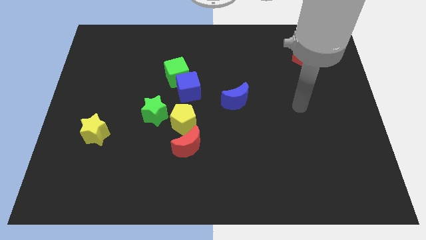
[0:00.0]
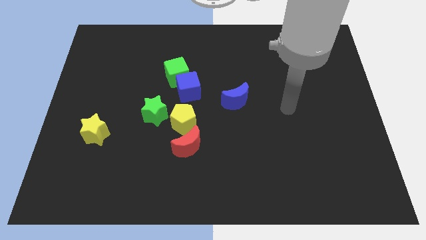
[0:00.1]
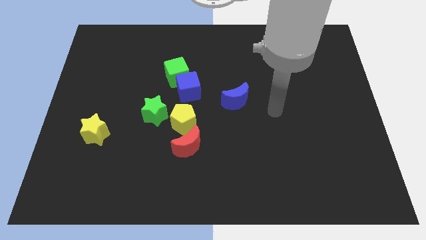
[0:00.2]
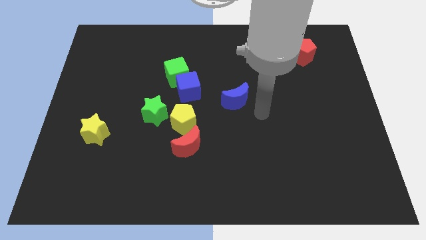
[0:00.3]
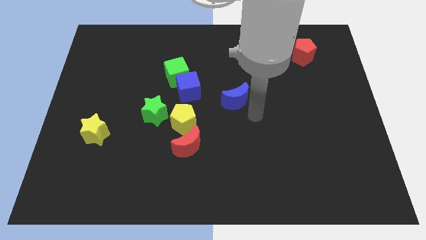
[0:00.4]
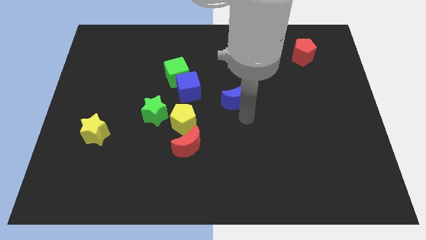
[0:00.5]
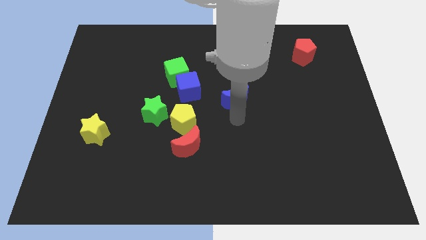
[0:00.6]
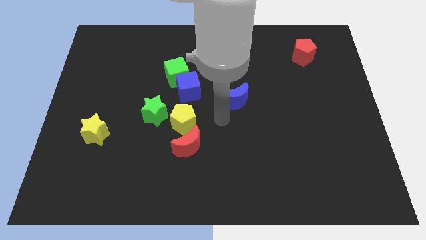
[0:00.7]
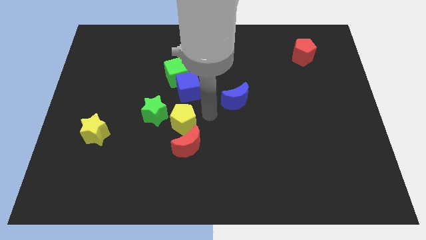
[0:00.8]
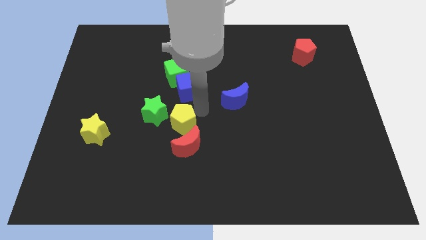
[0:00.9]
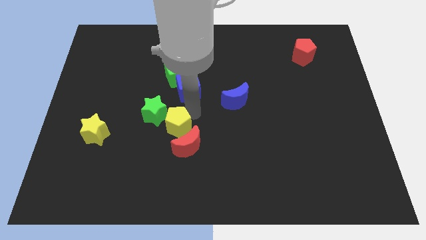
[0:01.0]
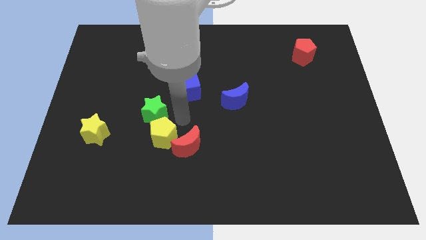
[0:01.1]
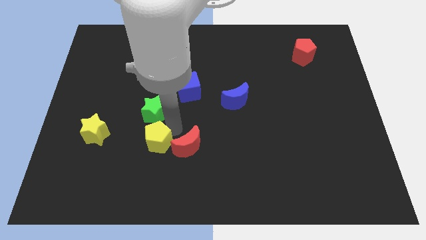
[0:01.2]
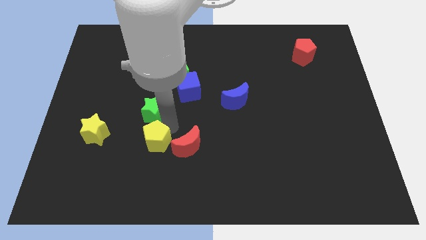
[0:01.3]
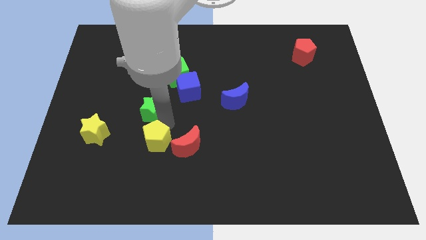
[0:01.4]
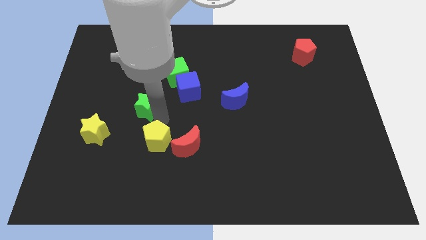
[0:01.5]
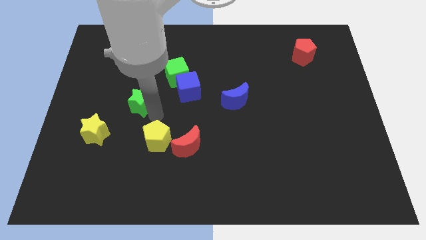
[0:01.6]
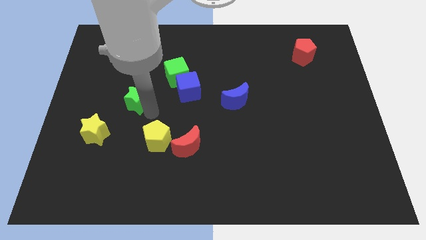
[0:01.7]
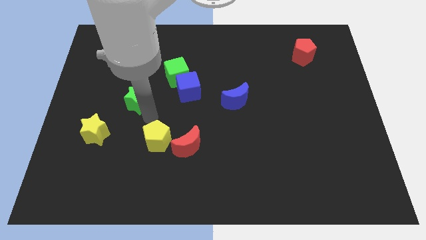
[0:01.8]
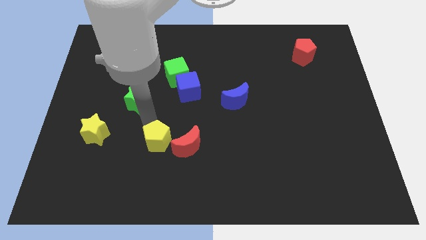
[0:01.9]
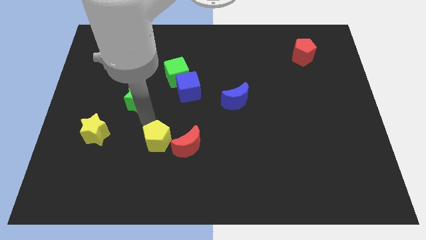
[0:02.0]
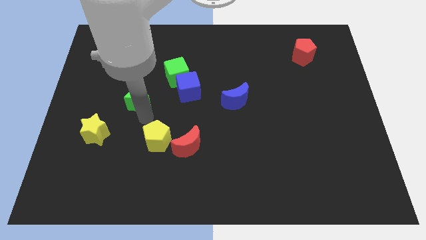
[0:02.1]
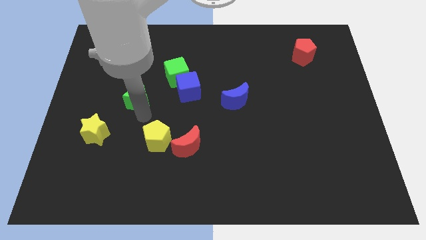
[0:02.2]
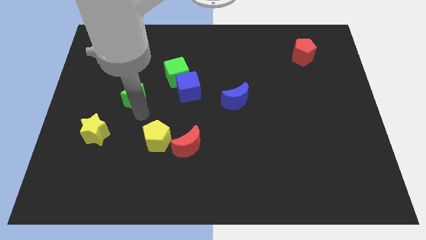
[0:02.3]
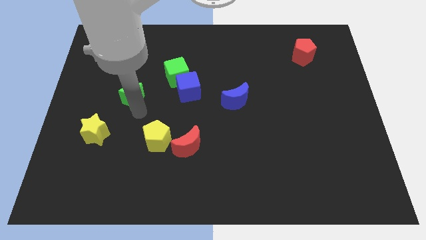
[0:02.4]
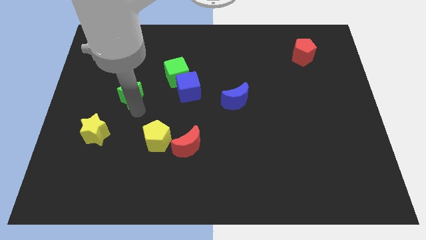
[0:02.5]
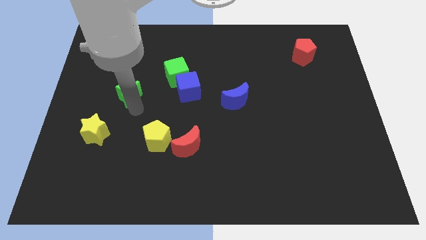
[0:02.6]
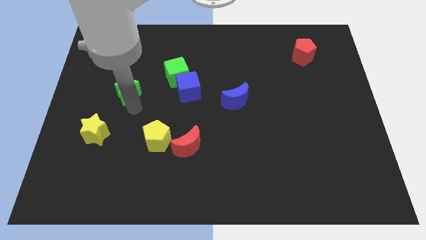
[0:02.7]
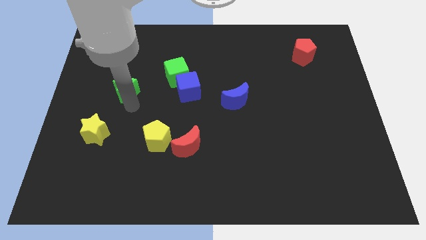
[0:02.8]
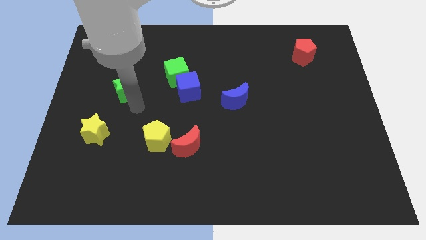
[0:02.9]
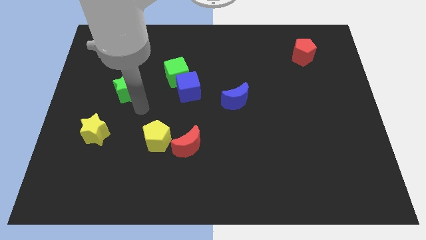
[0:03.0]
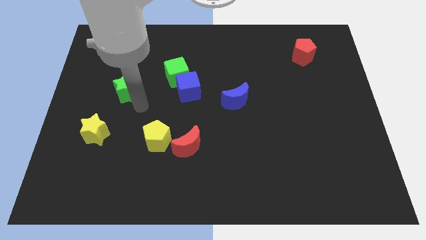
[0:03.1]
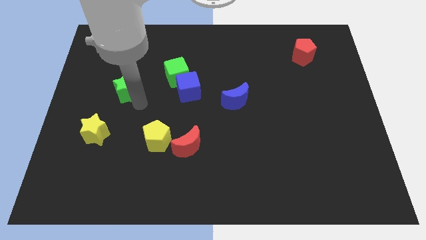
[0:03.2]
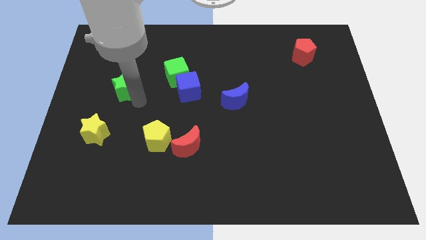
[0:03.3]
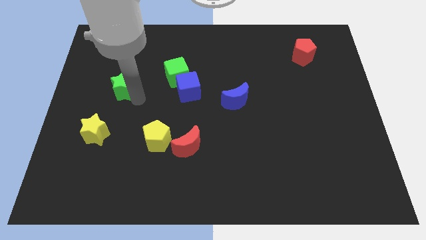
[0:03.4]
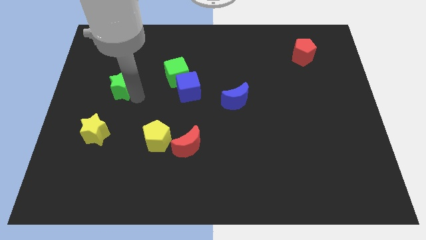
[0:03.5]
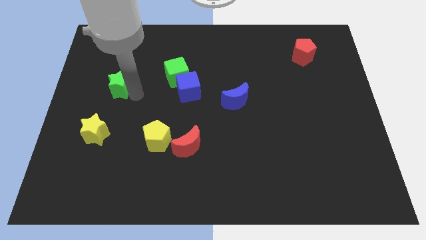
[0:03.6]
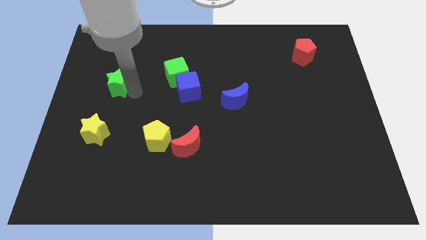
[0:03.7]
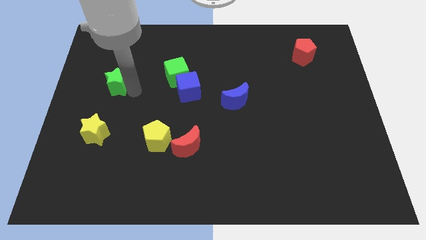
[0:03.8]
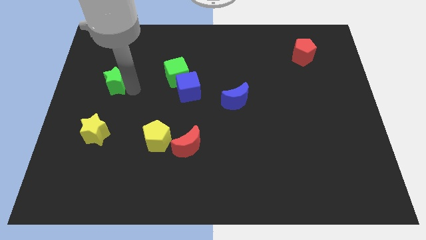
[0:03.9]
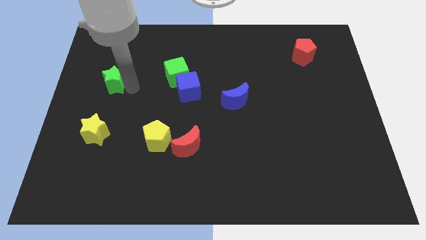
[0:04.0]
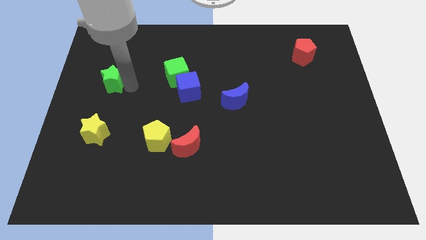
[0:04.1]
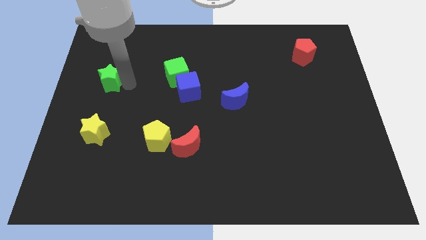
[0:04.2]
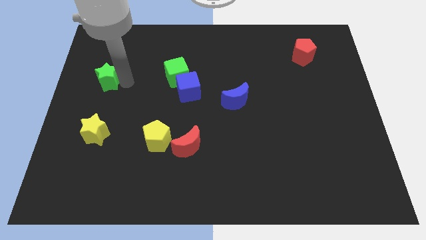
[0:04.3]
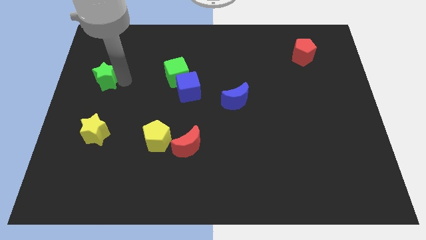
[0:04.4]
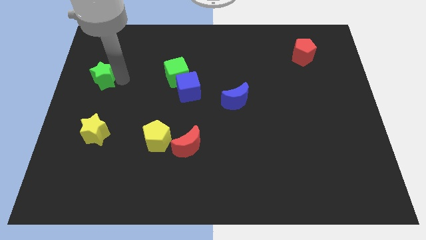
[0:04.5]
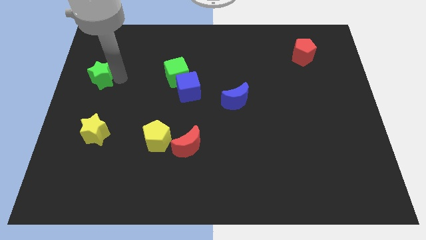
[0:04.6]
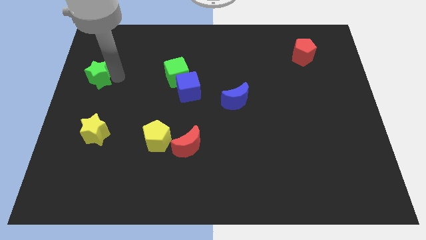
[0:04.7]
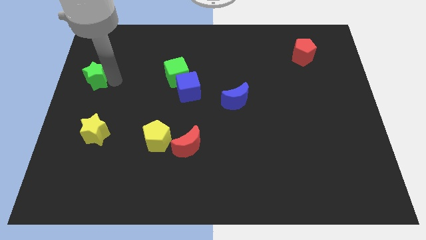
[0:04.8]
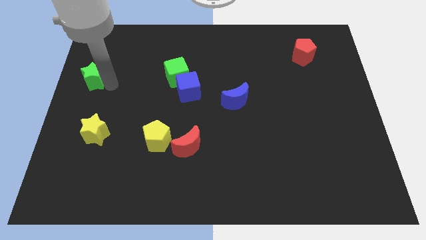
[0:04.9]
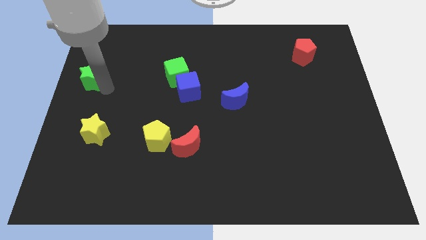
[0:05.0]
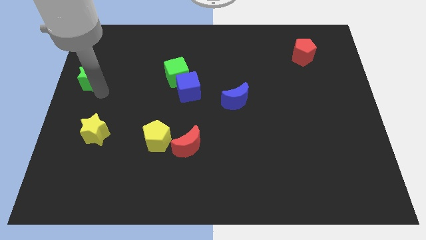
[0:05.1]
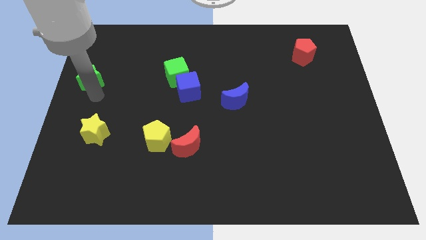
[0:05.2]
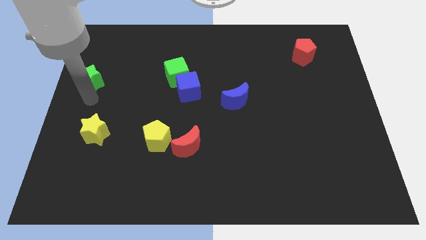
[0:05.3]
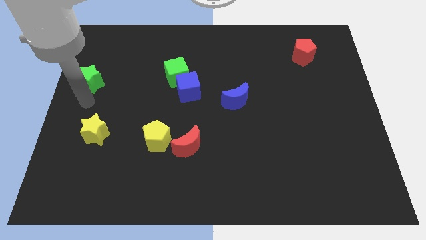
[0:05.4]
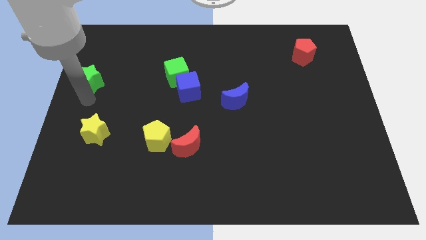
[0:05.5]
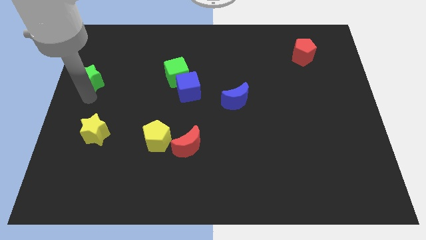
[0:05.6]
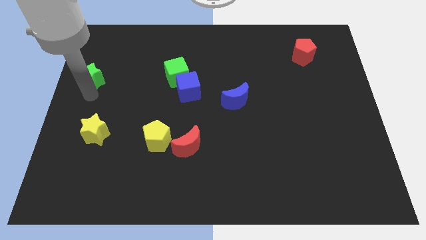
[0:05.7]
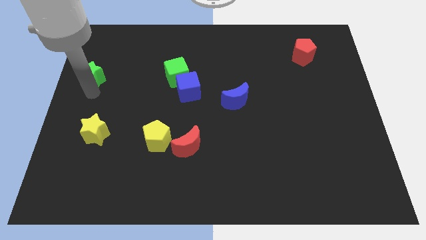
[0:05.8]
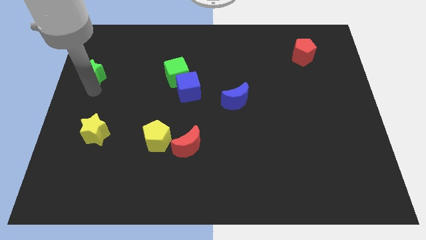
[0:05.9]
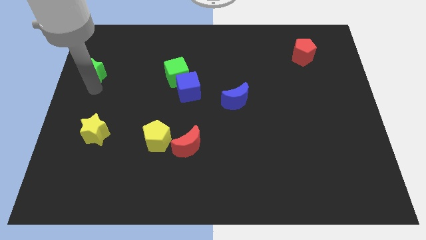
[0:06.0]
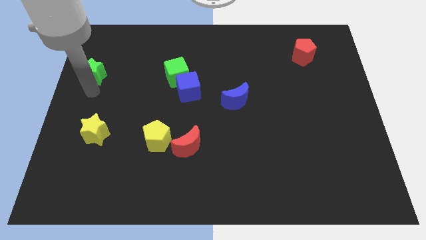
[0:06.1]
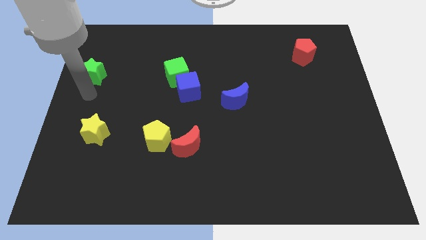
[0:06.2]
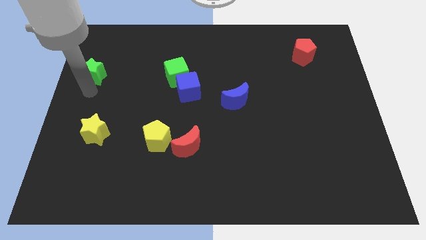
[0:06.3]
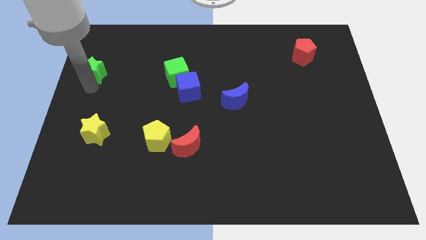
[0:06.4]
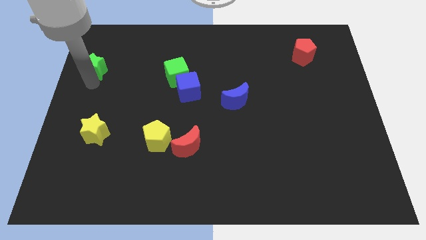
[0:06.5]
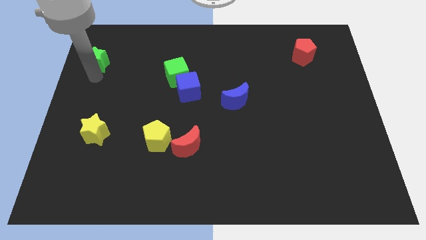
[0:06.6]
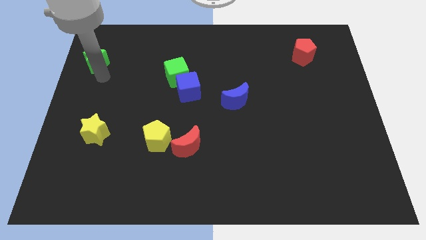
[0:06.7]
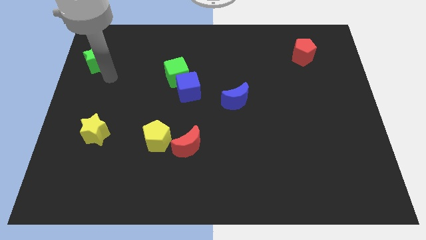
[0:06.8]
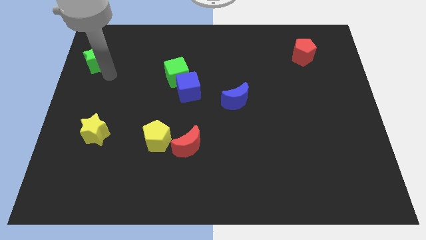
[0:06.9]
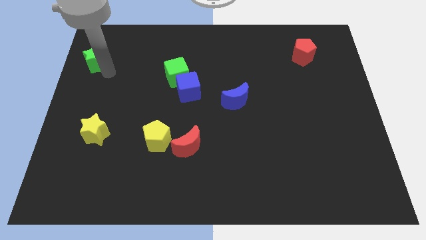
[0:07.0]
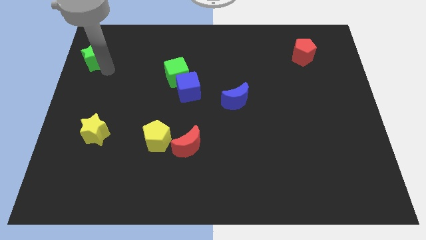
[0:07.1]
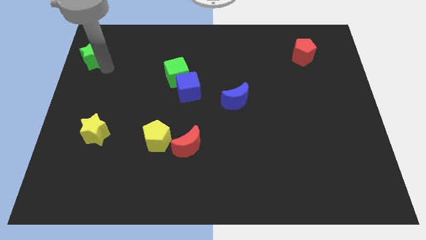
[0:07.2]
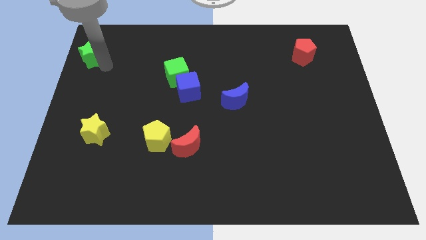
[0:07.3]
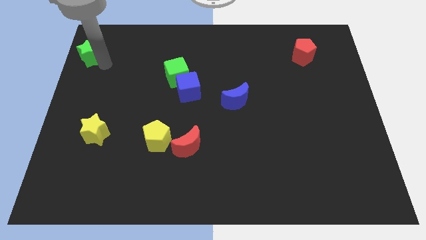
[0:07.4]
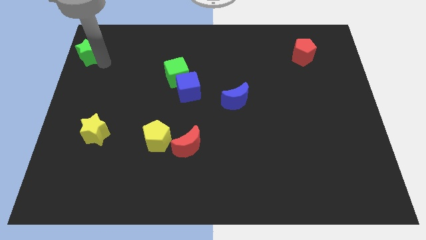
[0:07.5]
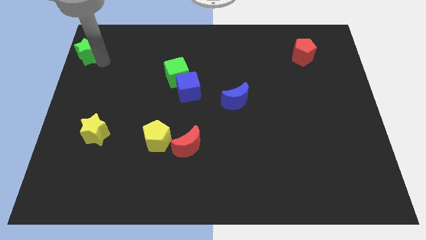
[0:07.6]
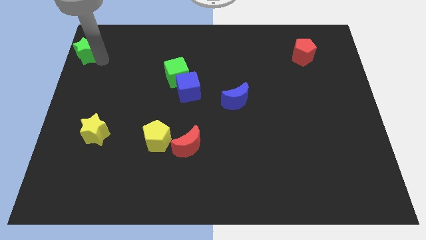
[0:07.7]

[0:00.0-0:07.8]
move the green star to the upper left corner
